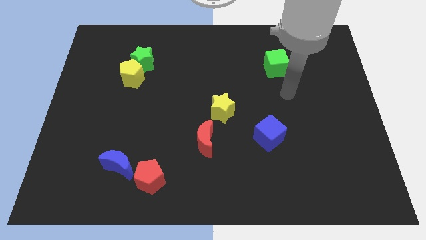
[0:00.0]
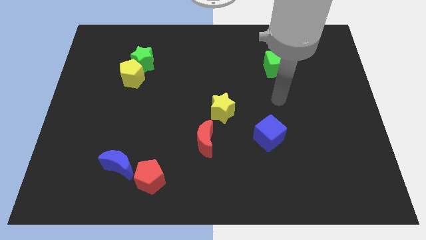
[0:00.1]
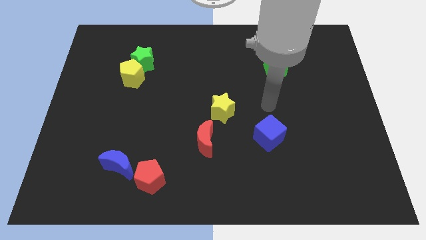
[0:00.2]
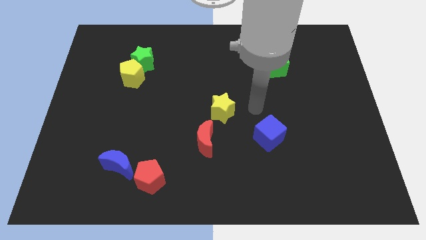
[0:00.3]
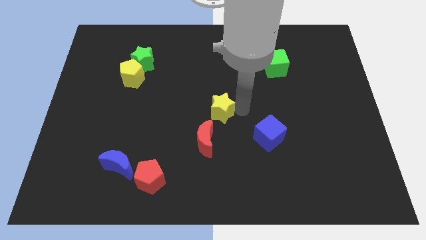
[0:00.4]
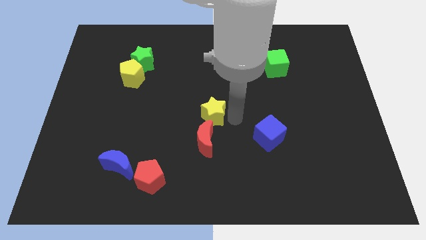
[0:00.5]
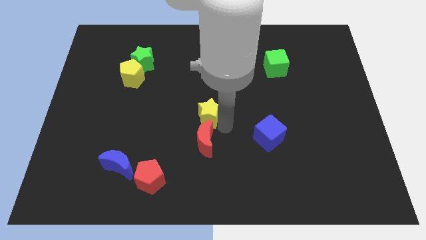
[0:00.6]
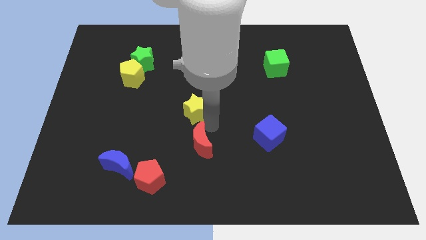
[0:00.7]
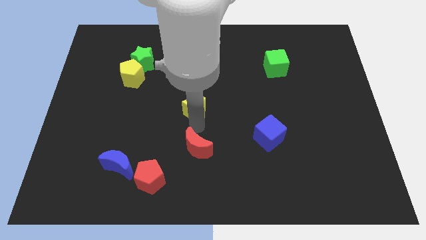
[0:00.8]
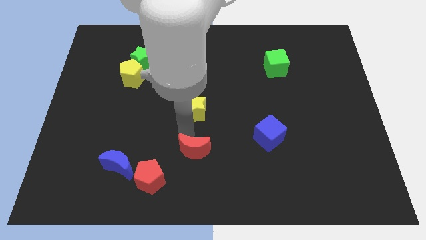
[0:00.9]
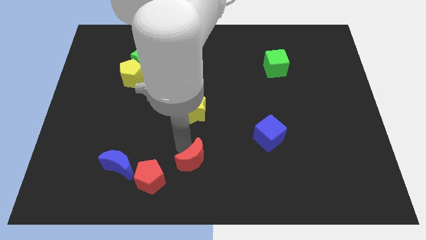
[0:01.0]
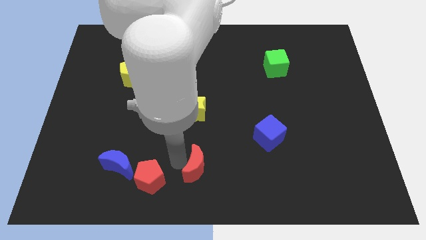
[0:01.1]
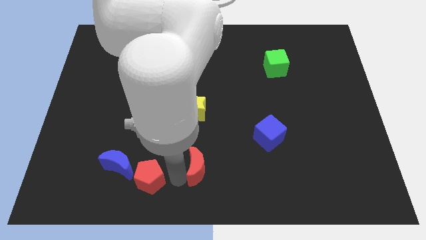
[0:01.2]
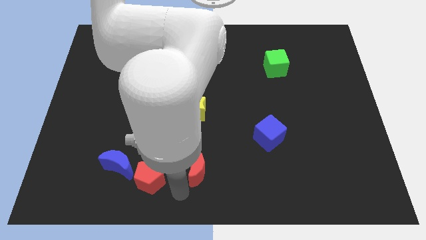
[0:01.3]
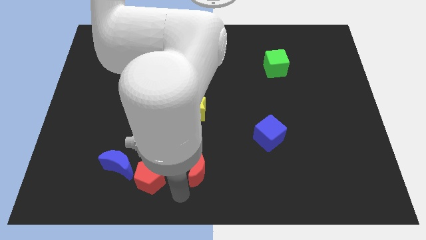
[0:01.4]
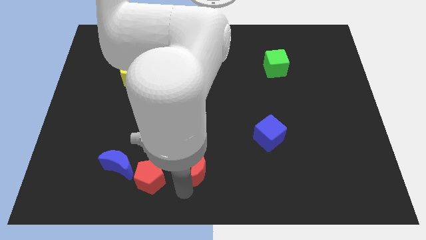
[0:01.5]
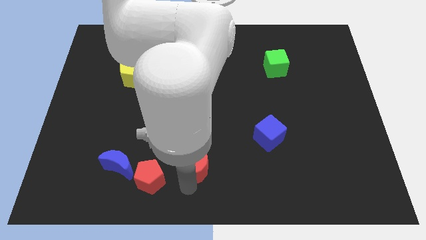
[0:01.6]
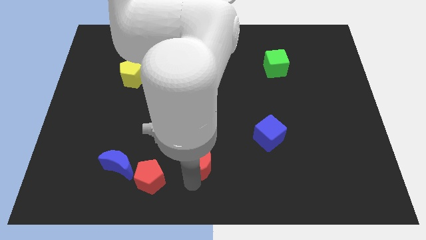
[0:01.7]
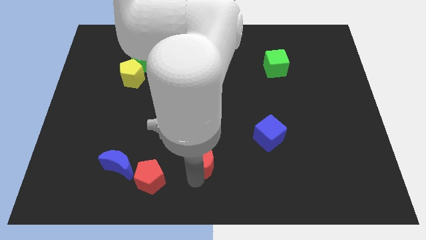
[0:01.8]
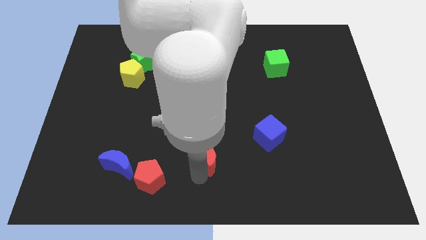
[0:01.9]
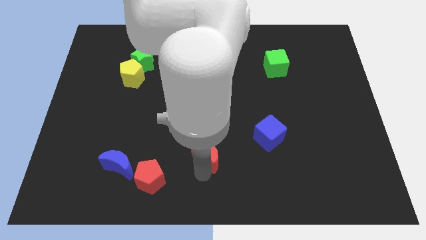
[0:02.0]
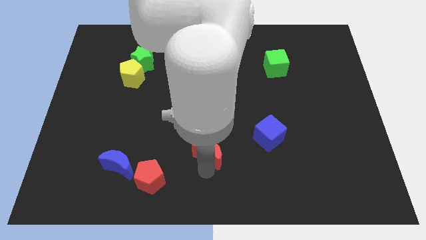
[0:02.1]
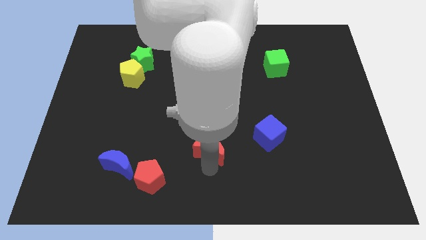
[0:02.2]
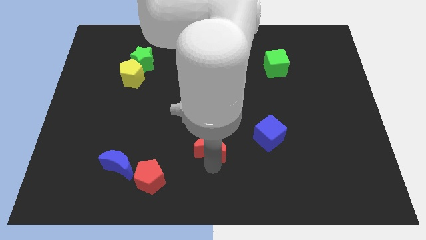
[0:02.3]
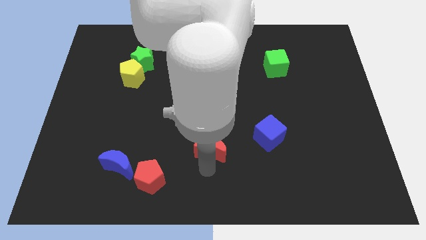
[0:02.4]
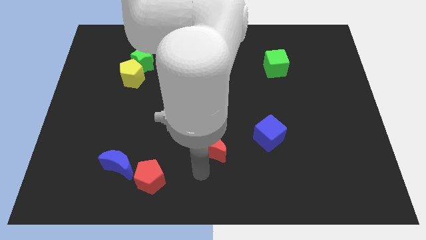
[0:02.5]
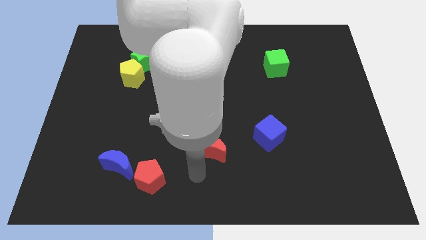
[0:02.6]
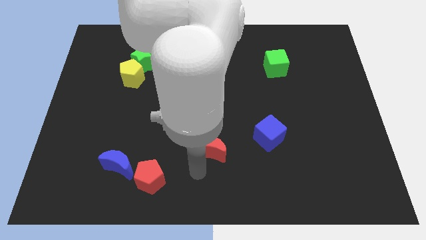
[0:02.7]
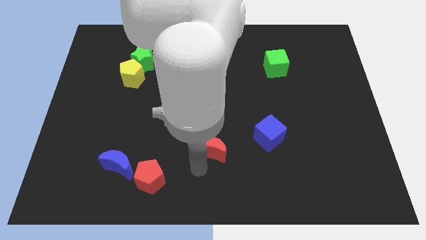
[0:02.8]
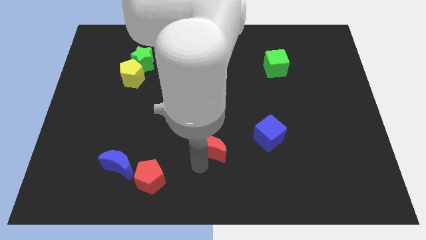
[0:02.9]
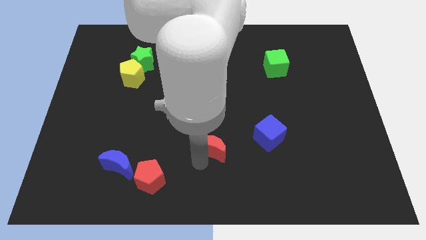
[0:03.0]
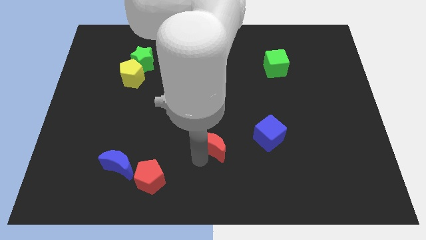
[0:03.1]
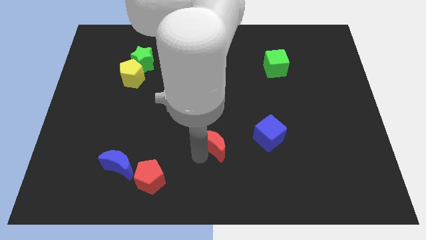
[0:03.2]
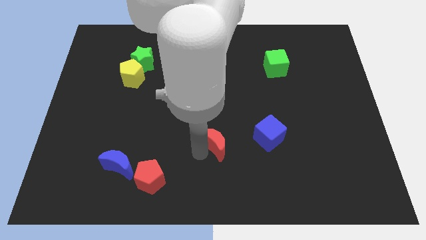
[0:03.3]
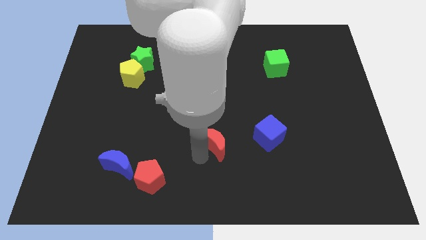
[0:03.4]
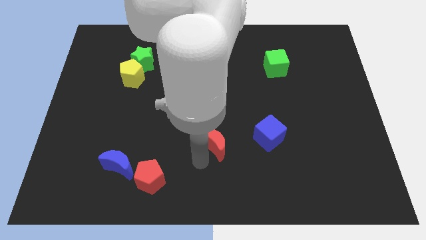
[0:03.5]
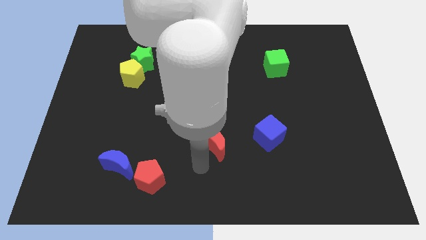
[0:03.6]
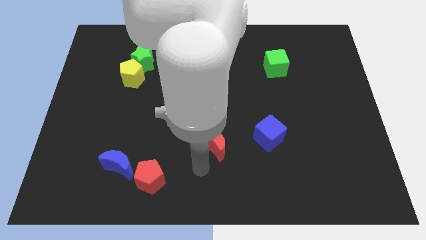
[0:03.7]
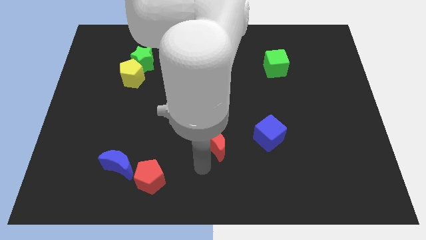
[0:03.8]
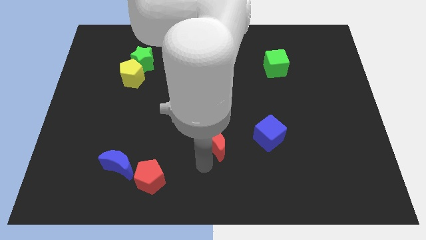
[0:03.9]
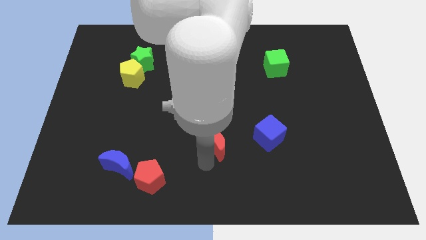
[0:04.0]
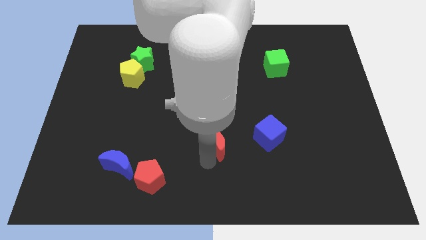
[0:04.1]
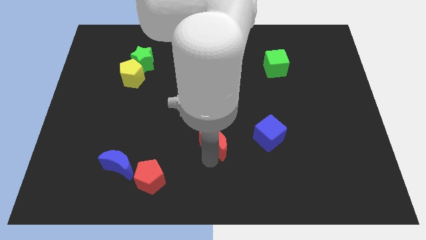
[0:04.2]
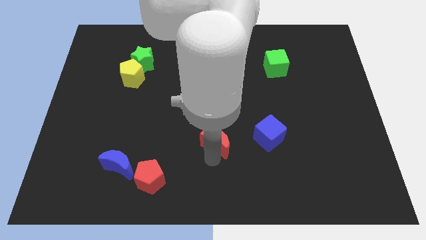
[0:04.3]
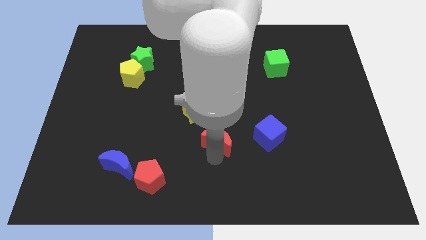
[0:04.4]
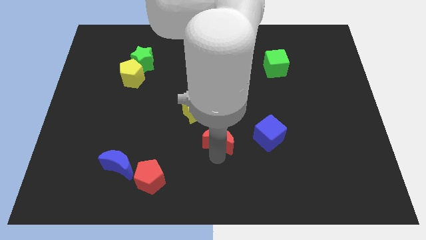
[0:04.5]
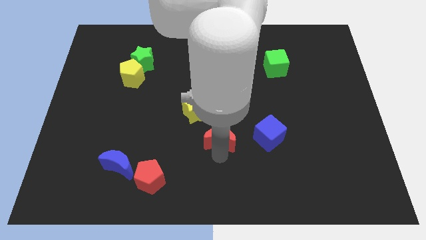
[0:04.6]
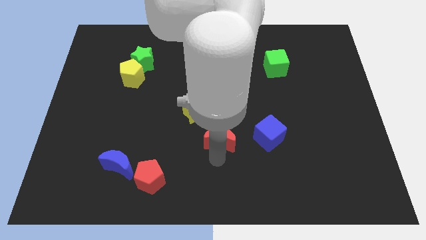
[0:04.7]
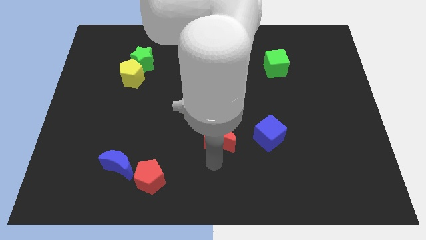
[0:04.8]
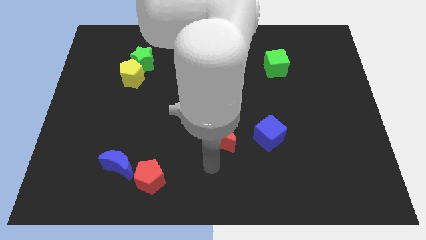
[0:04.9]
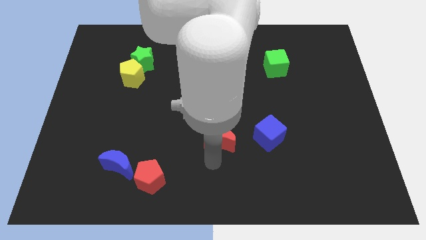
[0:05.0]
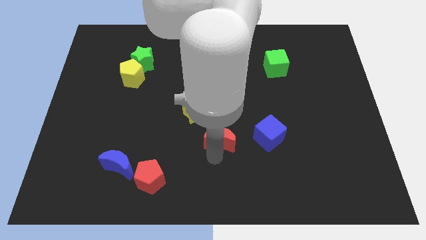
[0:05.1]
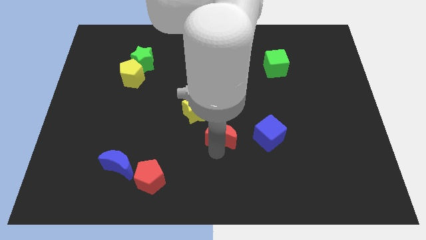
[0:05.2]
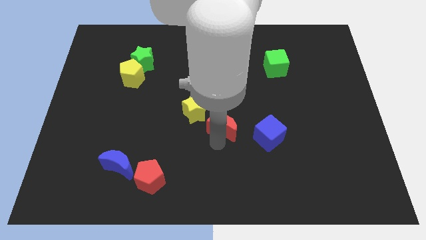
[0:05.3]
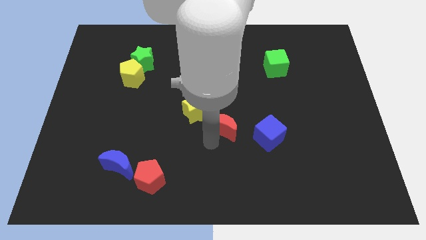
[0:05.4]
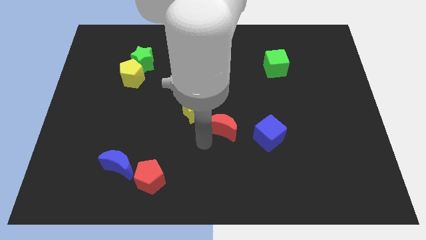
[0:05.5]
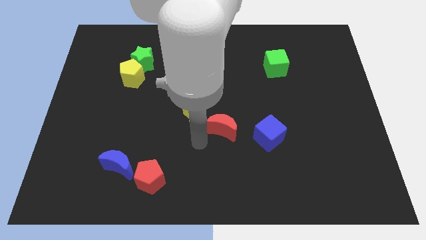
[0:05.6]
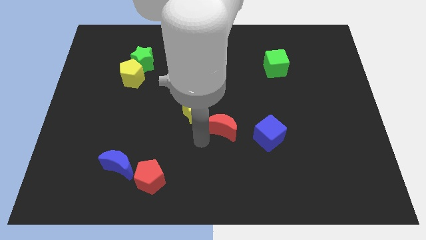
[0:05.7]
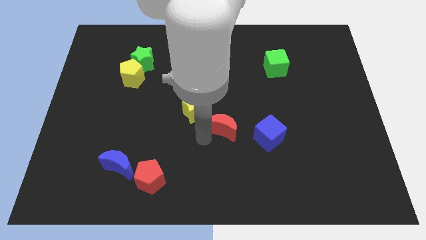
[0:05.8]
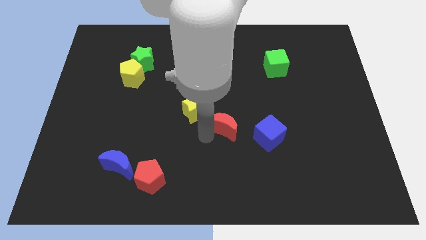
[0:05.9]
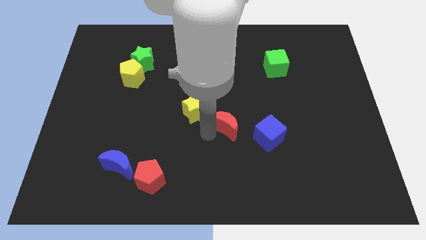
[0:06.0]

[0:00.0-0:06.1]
put the red moon to the top left side of the blue cube
